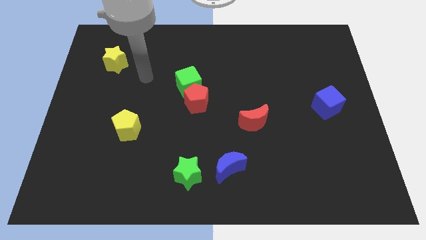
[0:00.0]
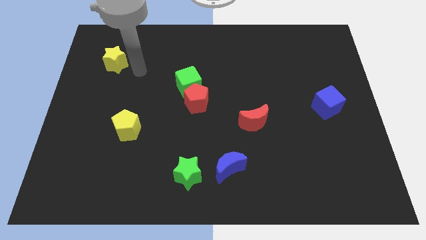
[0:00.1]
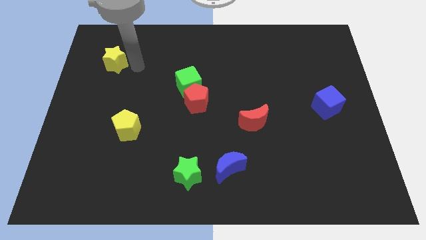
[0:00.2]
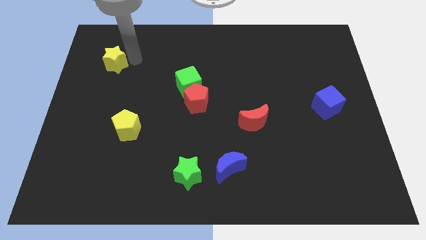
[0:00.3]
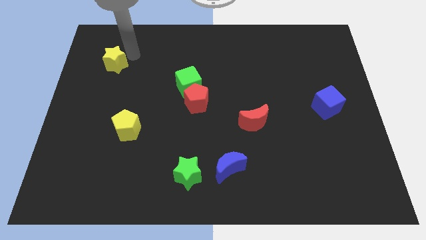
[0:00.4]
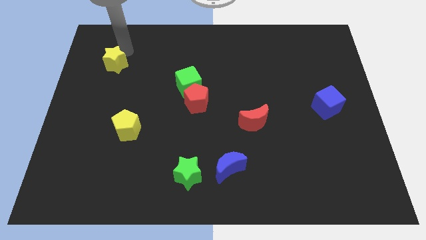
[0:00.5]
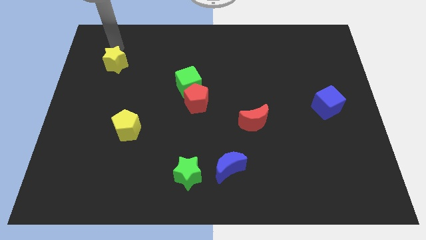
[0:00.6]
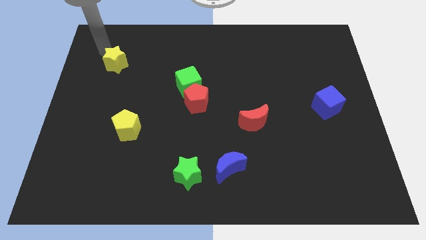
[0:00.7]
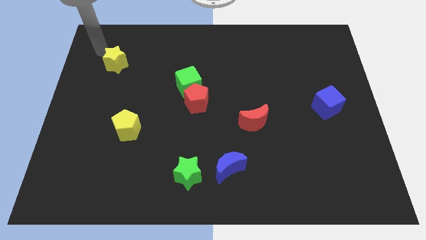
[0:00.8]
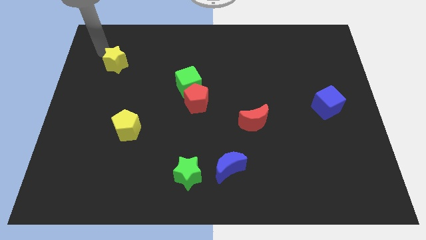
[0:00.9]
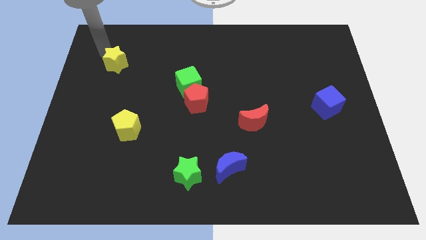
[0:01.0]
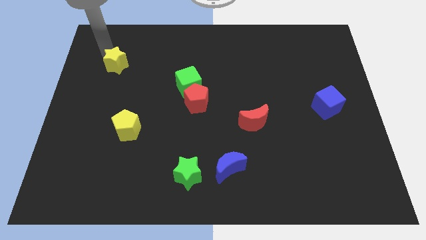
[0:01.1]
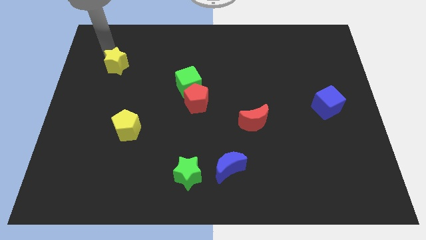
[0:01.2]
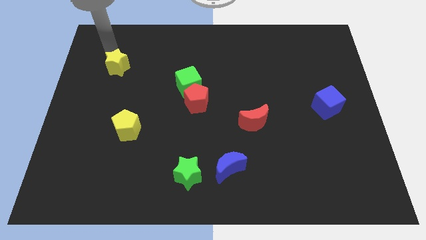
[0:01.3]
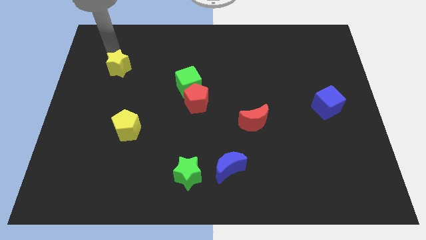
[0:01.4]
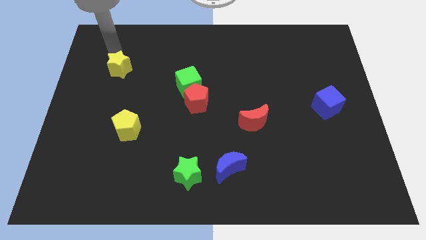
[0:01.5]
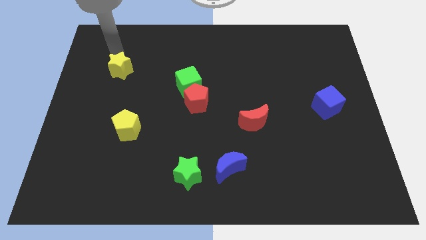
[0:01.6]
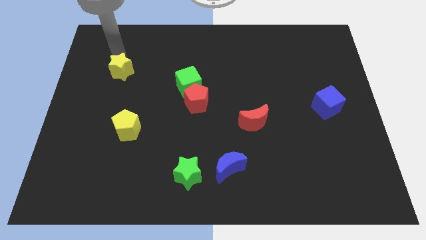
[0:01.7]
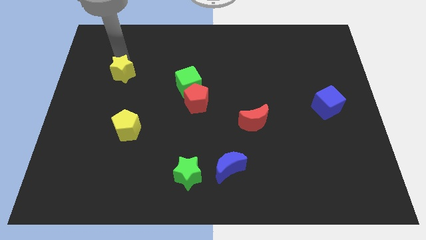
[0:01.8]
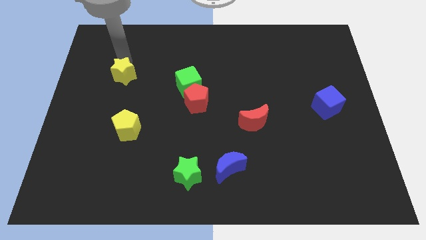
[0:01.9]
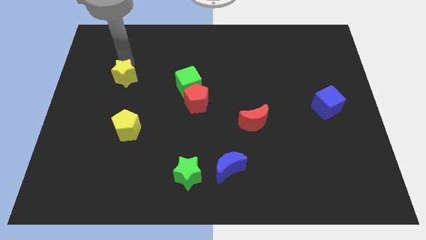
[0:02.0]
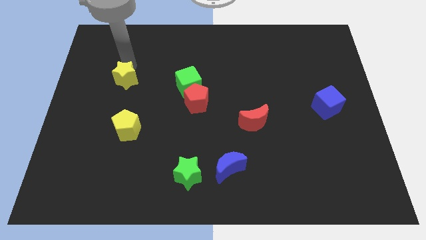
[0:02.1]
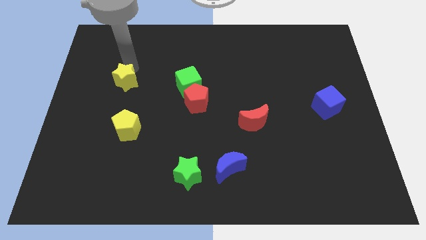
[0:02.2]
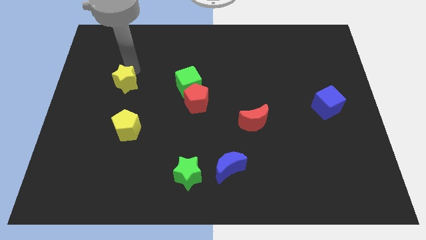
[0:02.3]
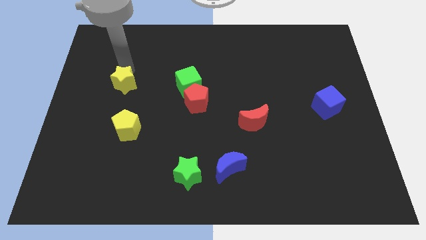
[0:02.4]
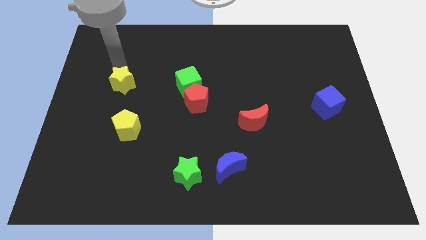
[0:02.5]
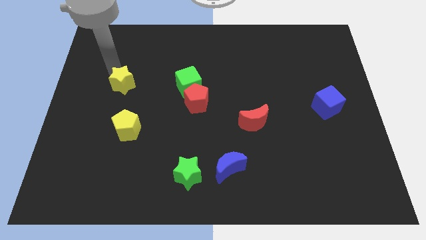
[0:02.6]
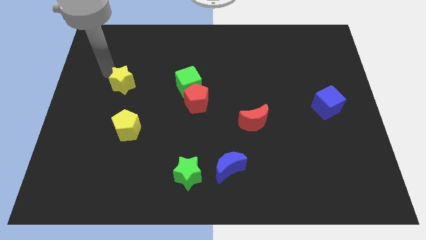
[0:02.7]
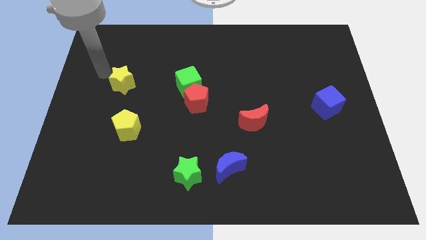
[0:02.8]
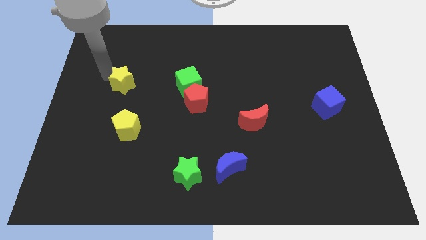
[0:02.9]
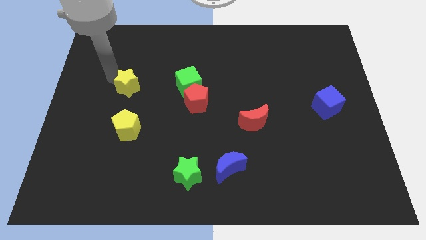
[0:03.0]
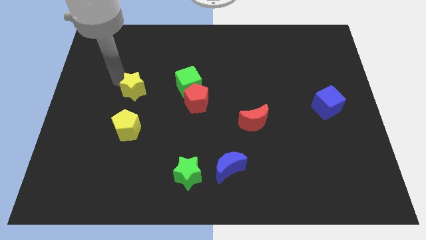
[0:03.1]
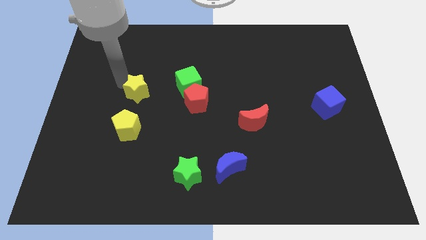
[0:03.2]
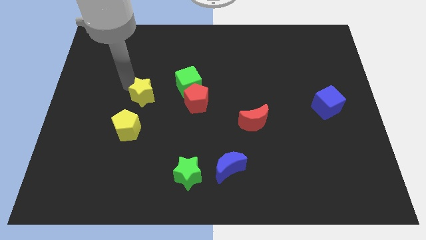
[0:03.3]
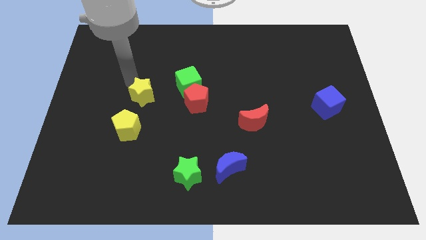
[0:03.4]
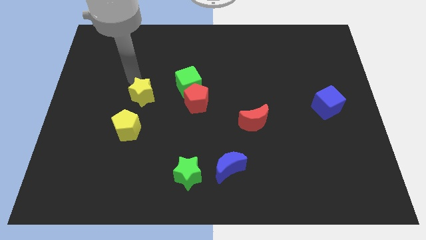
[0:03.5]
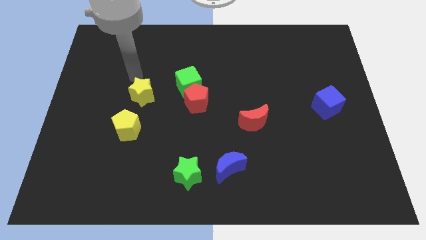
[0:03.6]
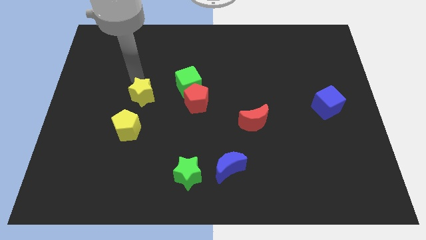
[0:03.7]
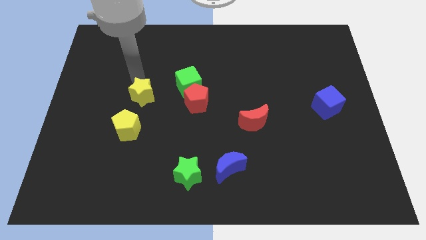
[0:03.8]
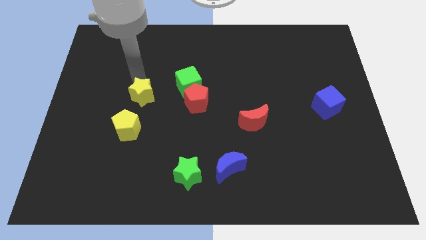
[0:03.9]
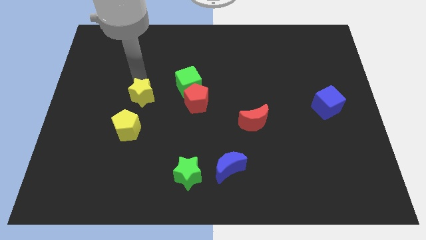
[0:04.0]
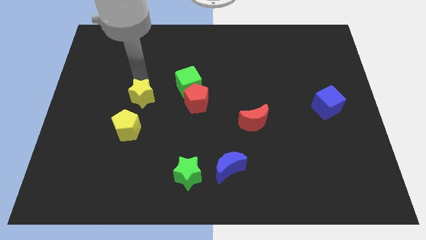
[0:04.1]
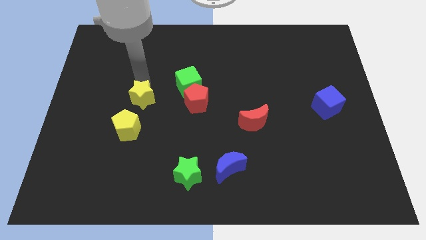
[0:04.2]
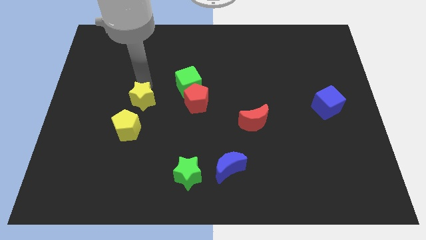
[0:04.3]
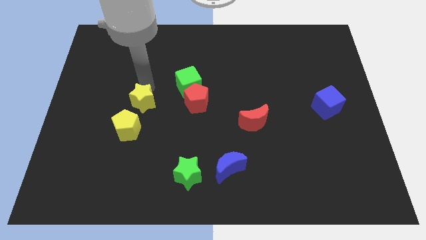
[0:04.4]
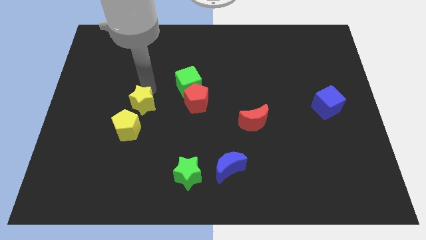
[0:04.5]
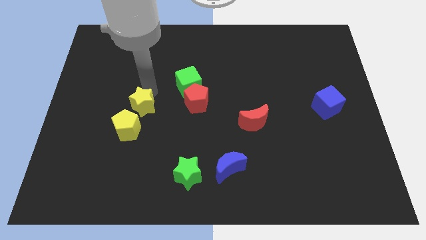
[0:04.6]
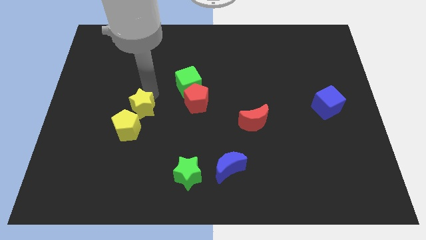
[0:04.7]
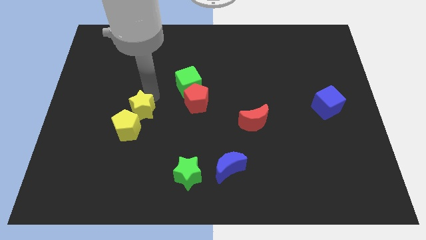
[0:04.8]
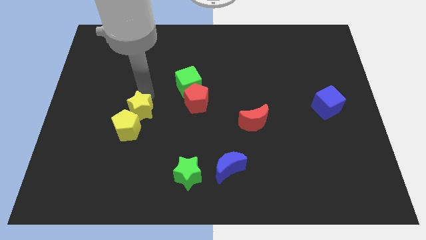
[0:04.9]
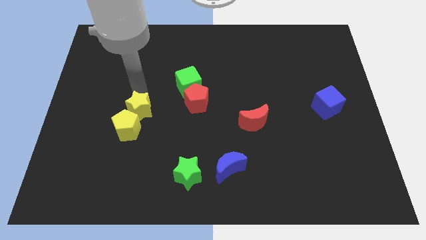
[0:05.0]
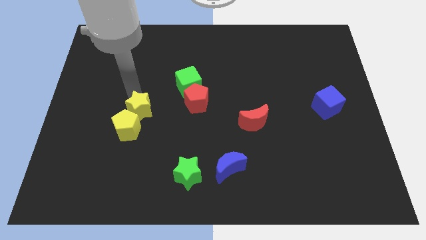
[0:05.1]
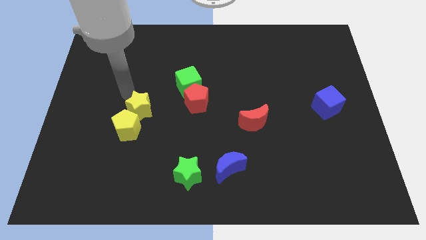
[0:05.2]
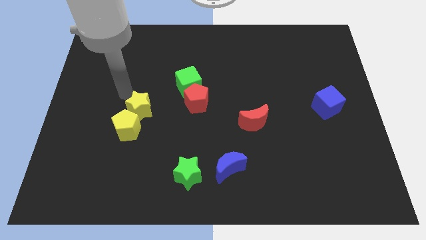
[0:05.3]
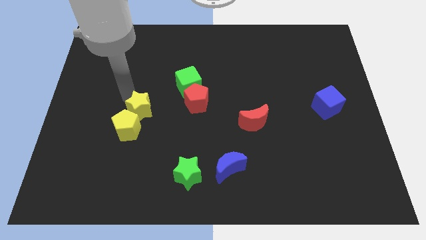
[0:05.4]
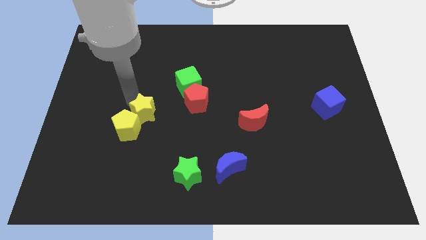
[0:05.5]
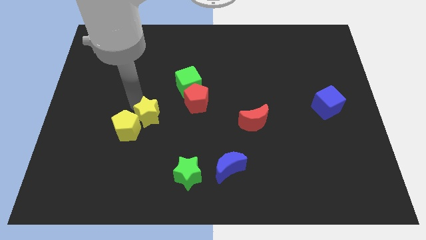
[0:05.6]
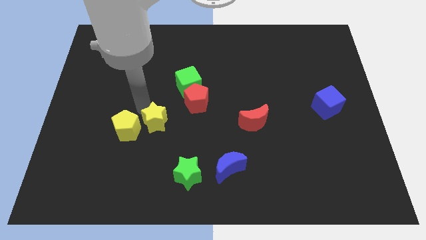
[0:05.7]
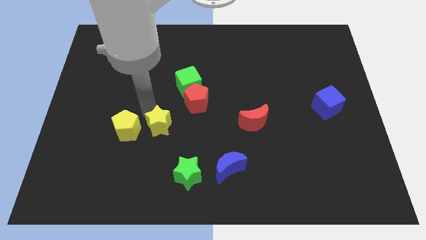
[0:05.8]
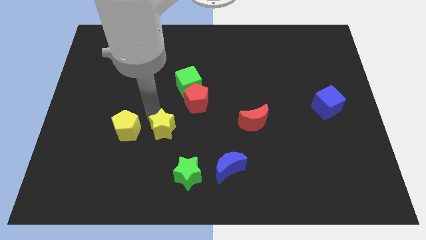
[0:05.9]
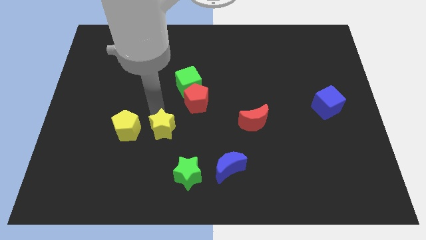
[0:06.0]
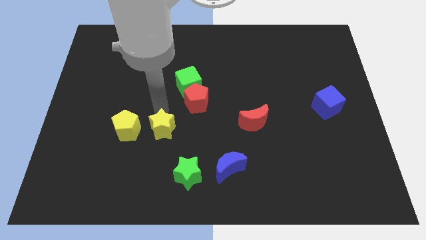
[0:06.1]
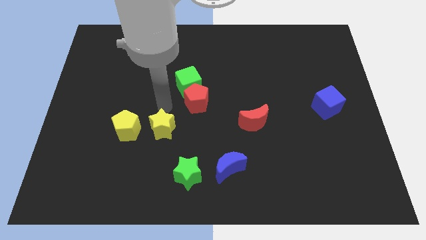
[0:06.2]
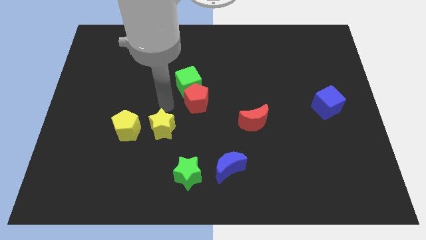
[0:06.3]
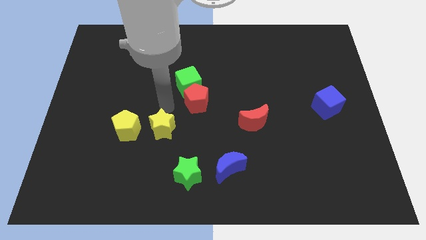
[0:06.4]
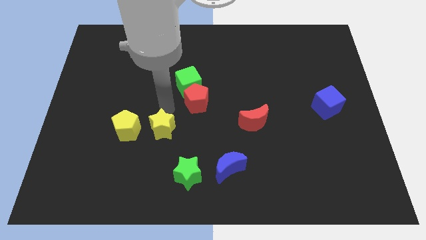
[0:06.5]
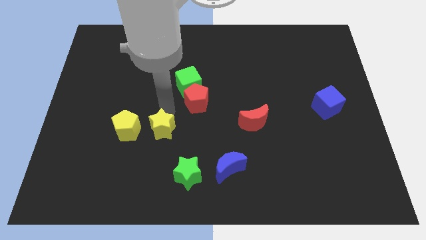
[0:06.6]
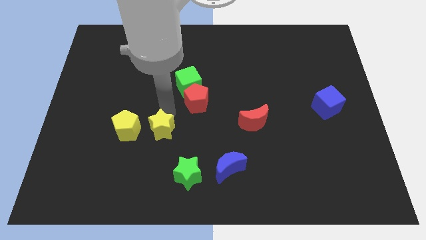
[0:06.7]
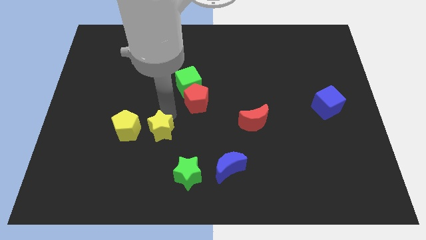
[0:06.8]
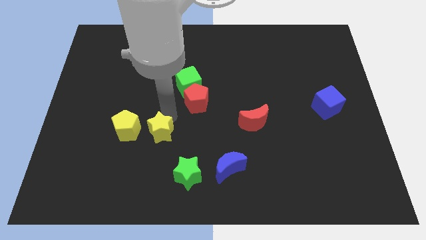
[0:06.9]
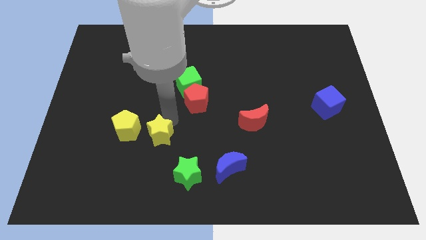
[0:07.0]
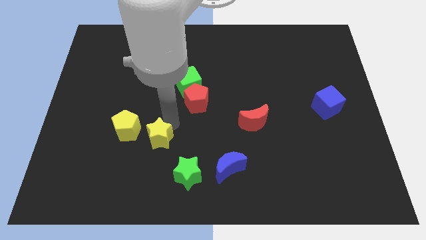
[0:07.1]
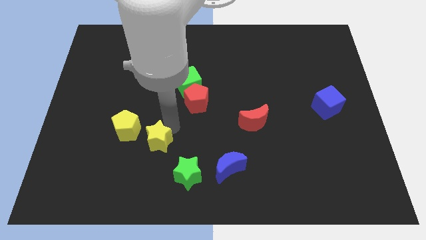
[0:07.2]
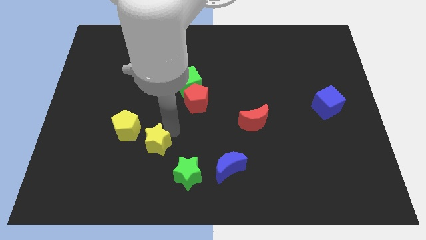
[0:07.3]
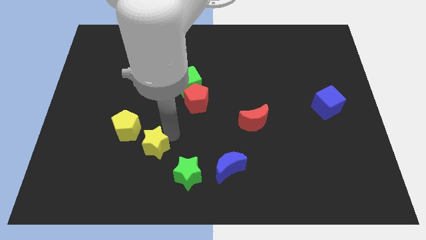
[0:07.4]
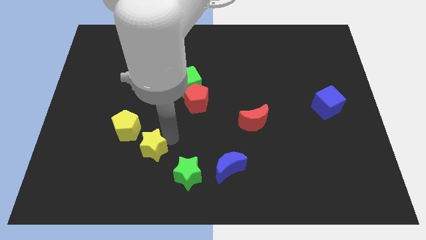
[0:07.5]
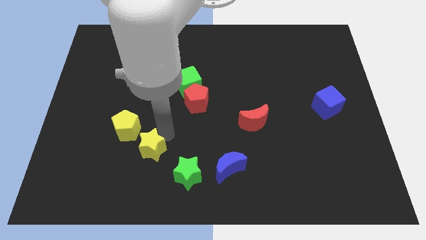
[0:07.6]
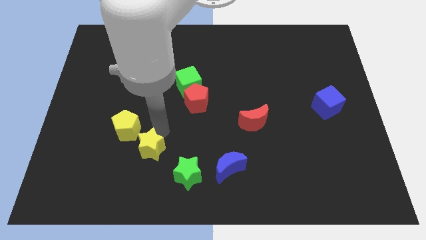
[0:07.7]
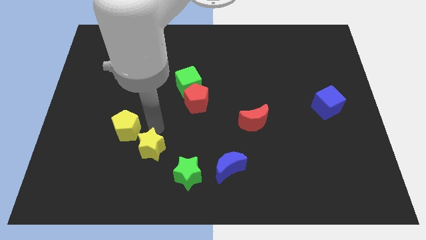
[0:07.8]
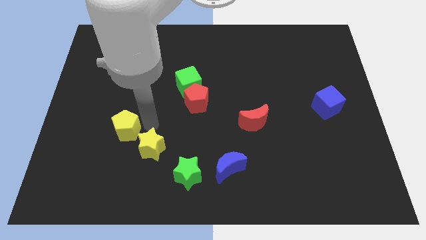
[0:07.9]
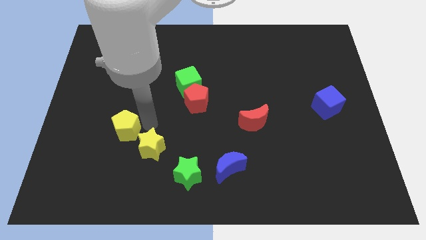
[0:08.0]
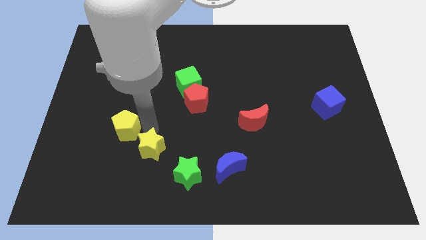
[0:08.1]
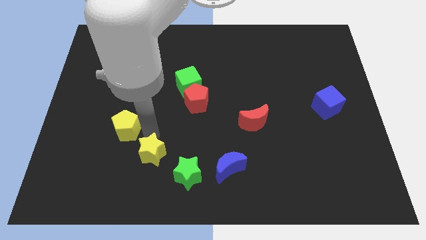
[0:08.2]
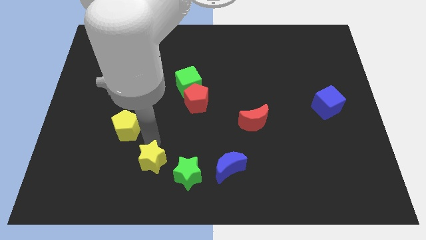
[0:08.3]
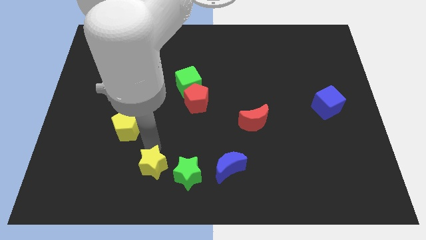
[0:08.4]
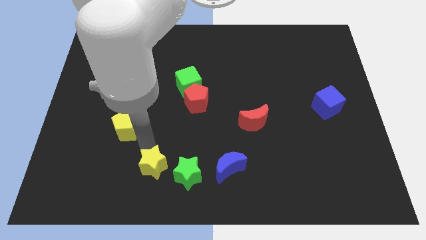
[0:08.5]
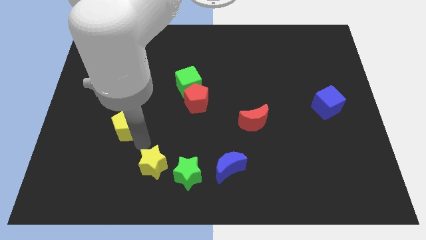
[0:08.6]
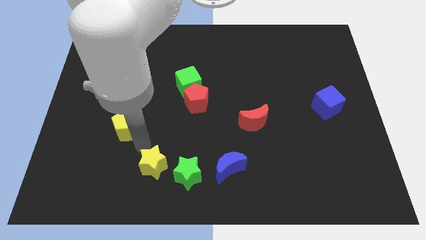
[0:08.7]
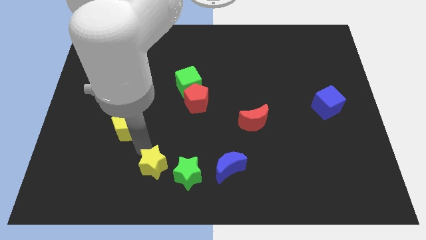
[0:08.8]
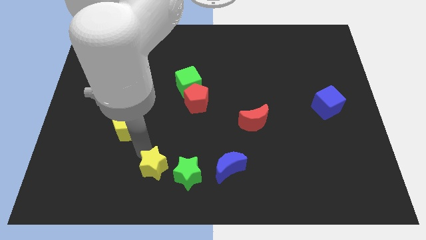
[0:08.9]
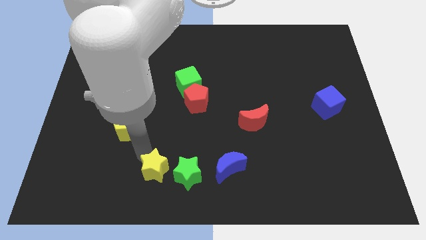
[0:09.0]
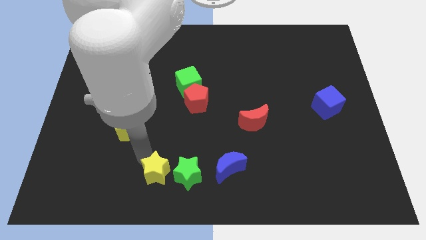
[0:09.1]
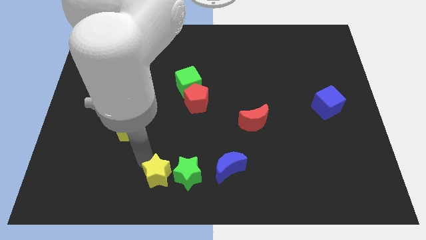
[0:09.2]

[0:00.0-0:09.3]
slide the yellow star to the bottom
